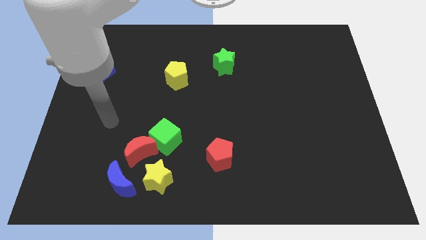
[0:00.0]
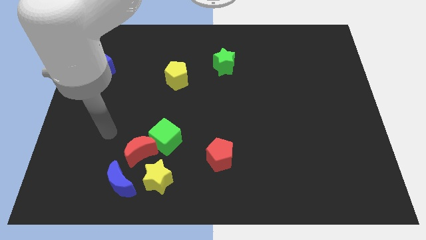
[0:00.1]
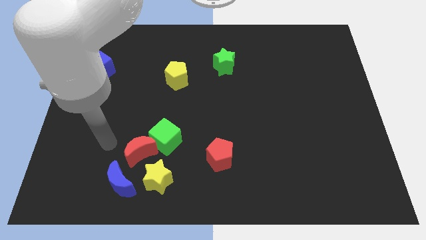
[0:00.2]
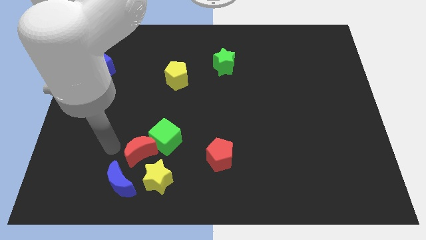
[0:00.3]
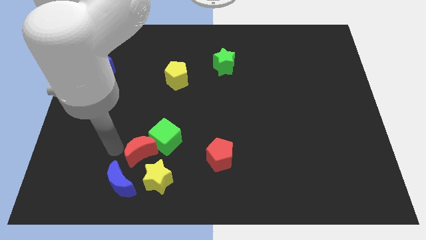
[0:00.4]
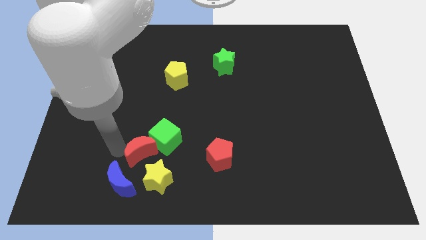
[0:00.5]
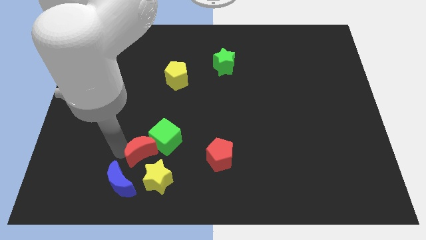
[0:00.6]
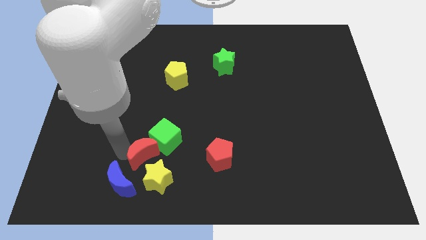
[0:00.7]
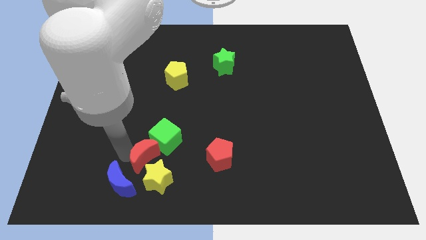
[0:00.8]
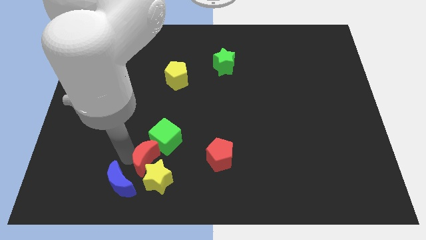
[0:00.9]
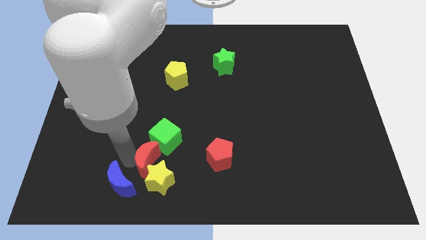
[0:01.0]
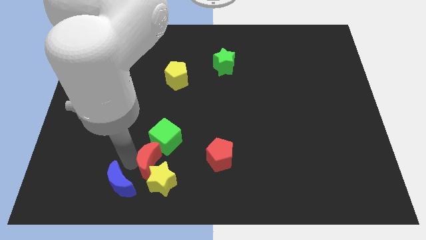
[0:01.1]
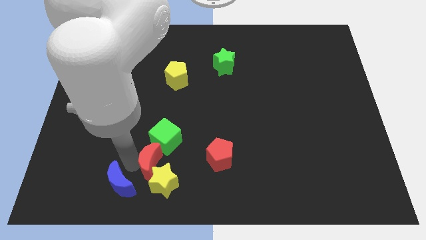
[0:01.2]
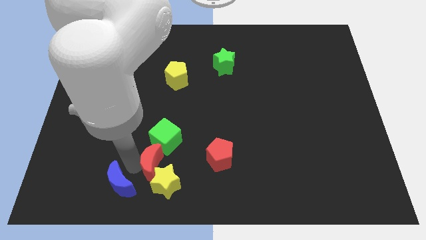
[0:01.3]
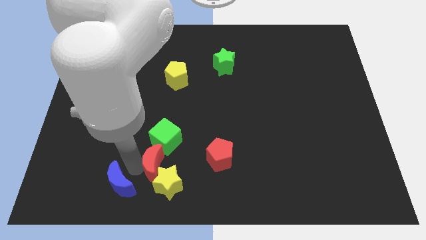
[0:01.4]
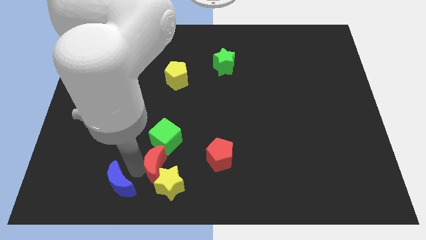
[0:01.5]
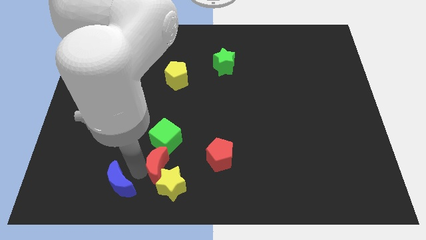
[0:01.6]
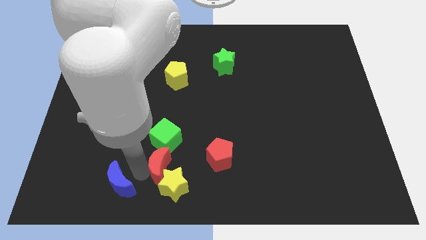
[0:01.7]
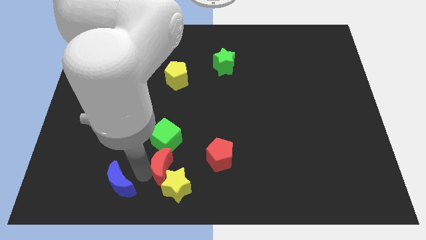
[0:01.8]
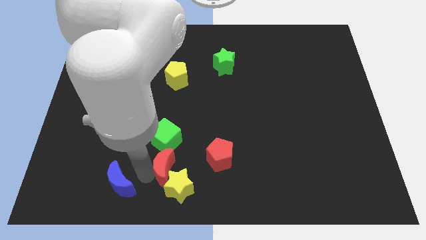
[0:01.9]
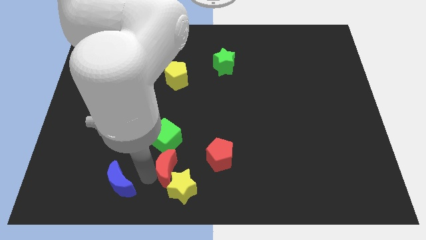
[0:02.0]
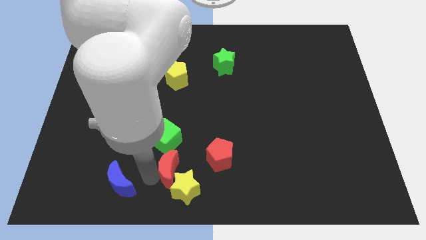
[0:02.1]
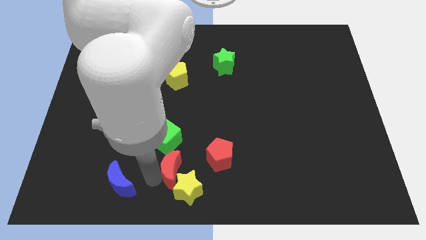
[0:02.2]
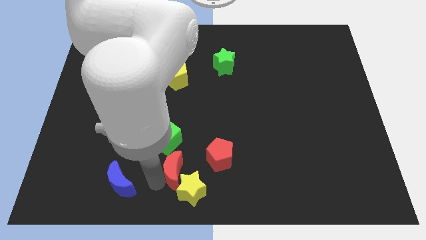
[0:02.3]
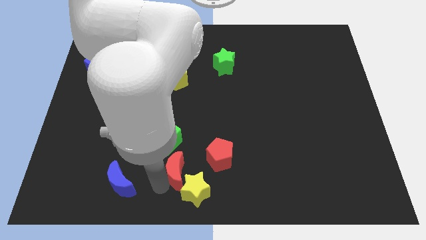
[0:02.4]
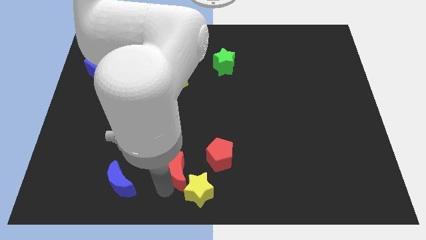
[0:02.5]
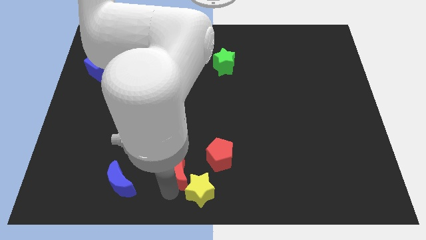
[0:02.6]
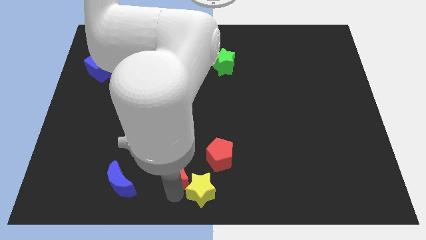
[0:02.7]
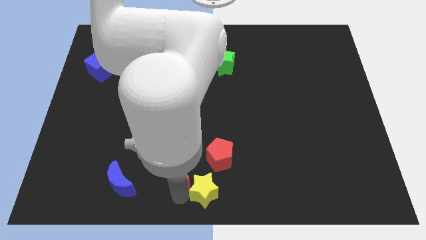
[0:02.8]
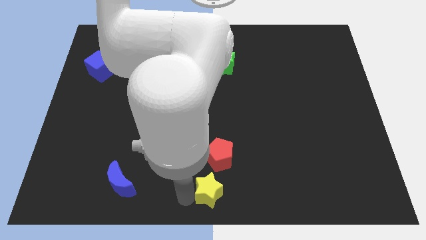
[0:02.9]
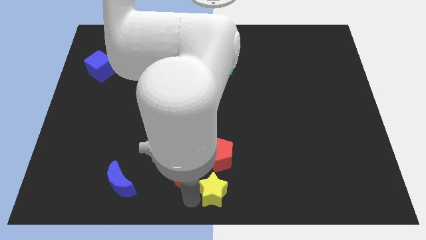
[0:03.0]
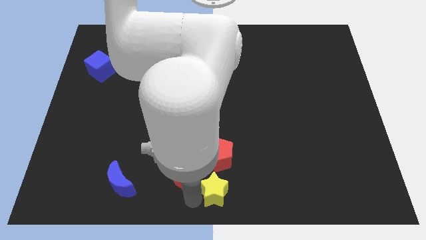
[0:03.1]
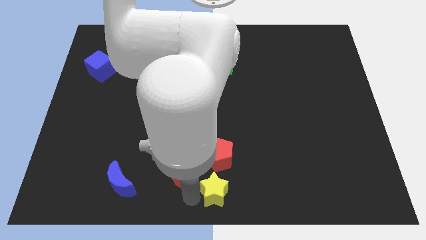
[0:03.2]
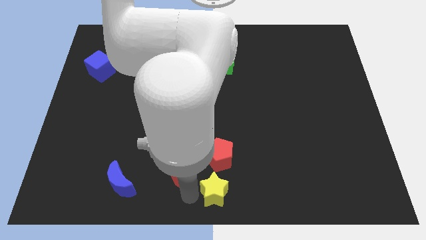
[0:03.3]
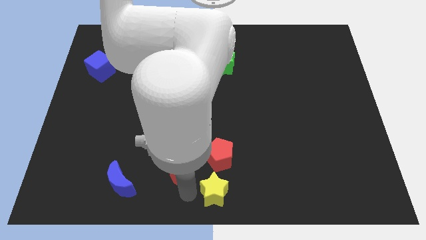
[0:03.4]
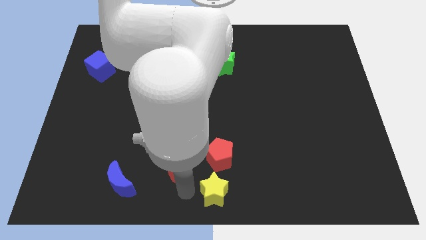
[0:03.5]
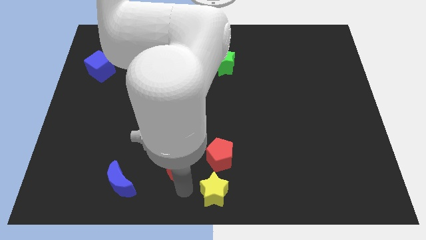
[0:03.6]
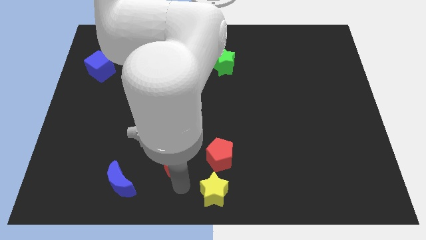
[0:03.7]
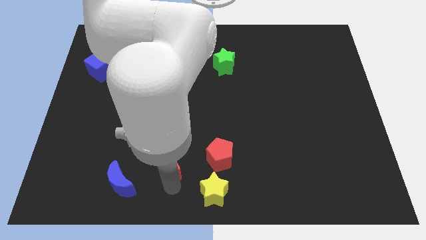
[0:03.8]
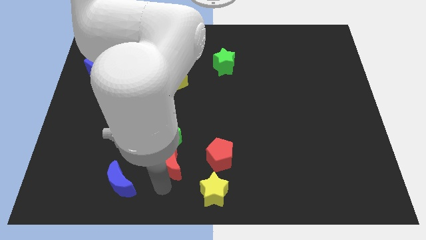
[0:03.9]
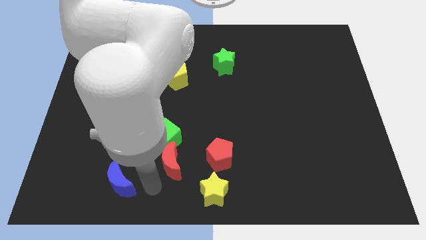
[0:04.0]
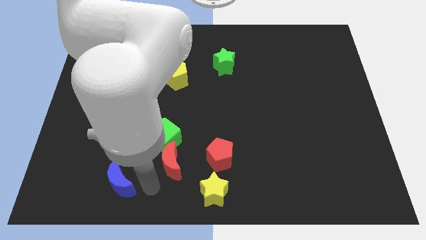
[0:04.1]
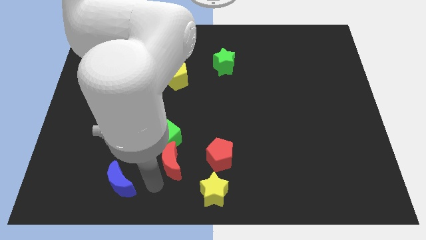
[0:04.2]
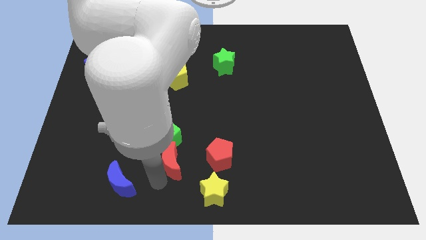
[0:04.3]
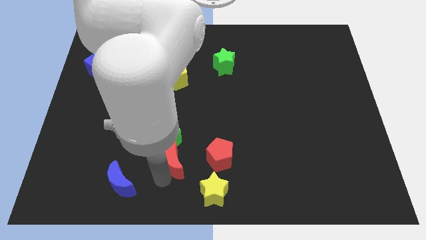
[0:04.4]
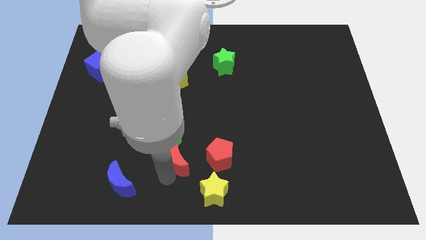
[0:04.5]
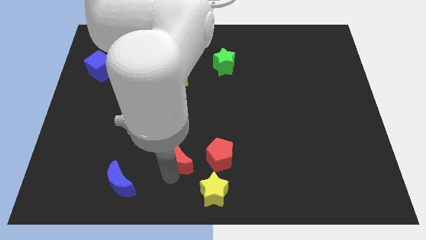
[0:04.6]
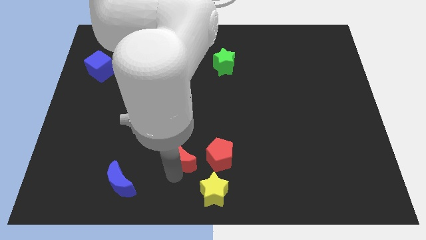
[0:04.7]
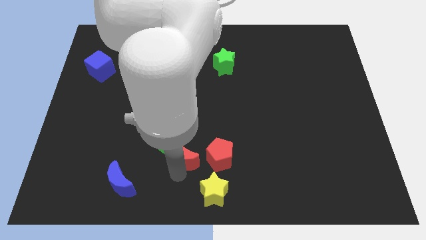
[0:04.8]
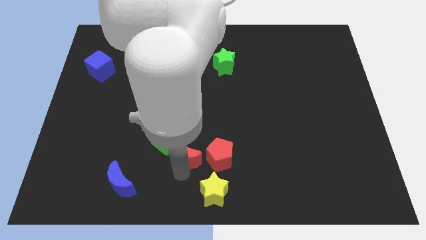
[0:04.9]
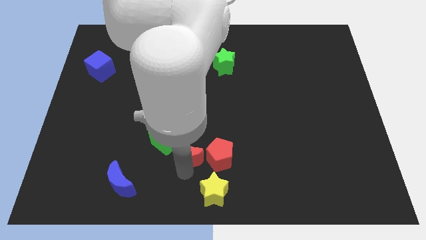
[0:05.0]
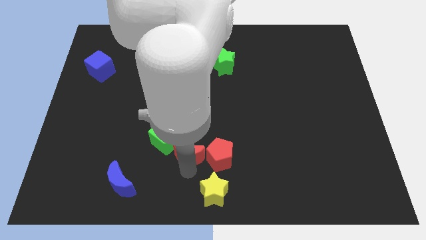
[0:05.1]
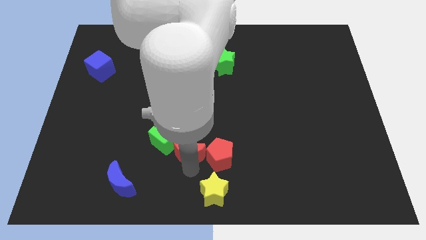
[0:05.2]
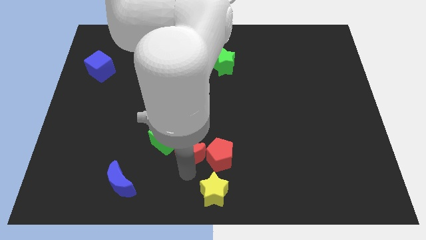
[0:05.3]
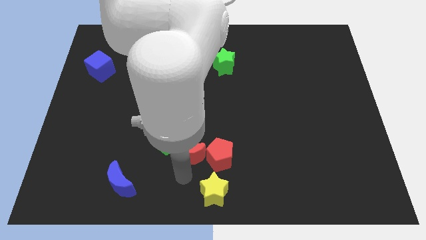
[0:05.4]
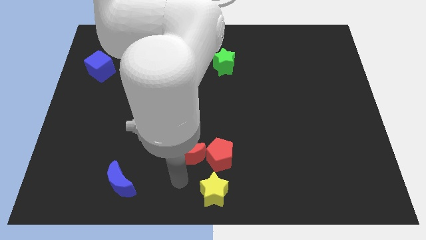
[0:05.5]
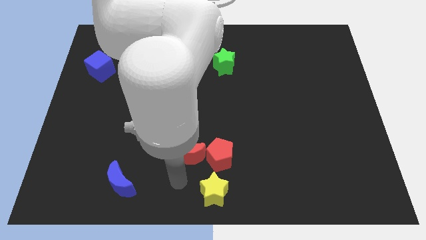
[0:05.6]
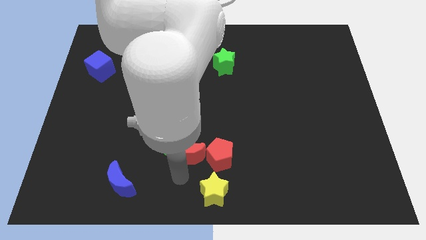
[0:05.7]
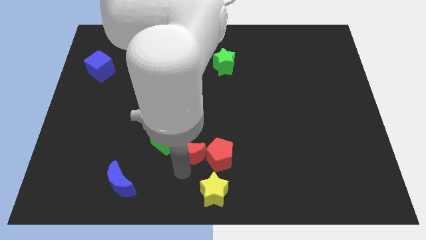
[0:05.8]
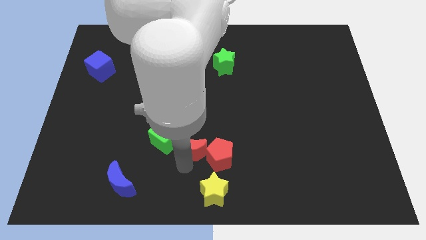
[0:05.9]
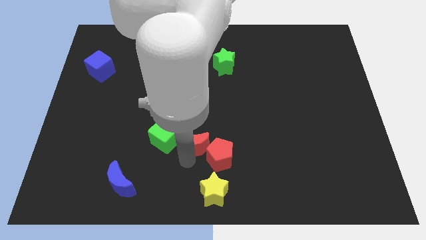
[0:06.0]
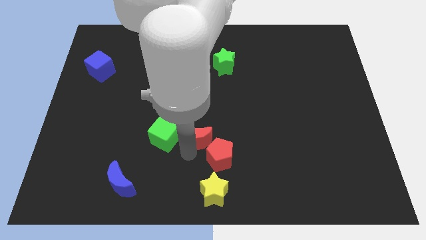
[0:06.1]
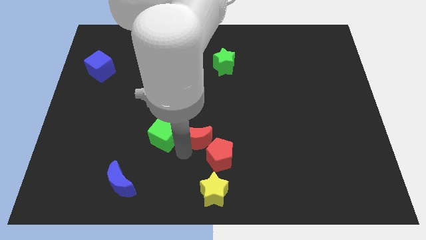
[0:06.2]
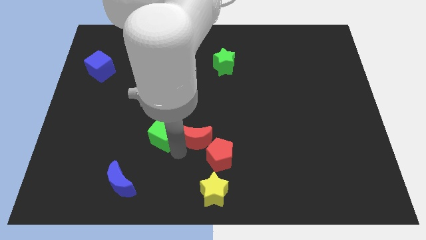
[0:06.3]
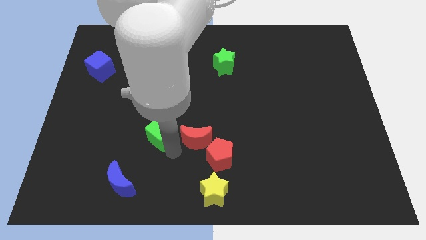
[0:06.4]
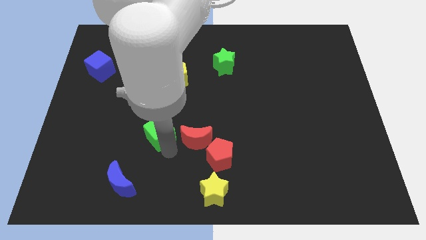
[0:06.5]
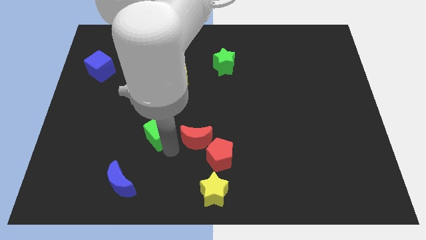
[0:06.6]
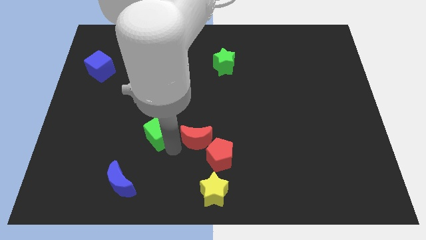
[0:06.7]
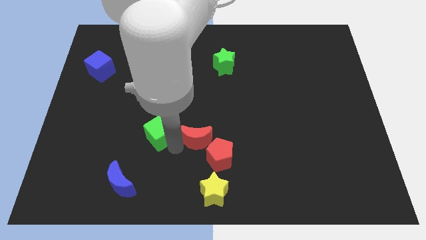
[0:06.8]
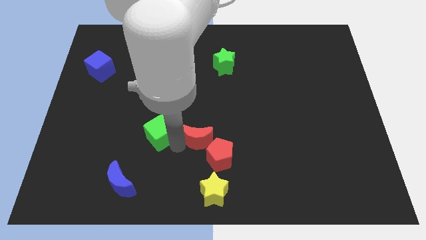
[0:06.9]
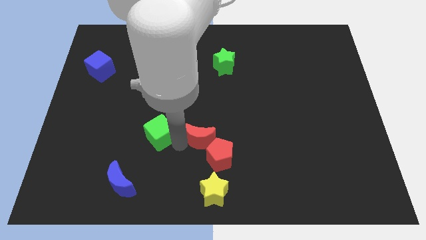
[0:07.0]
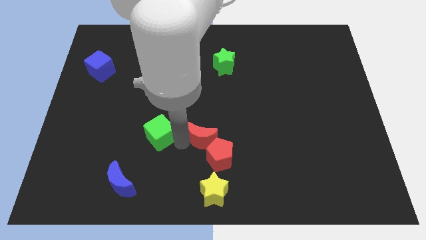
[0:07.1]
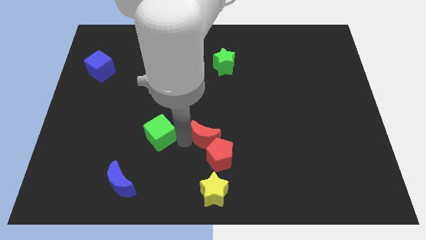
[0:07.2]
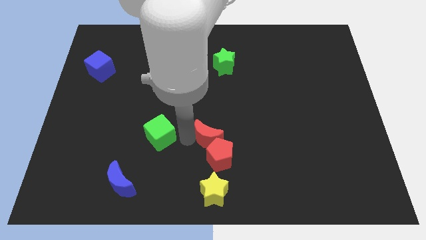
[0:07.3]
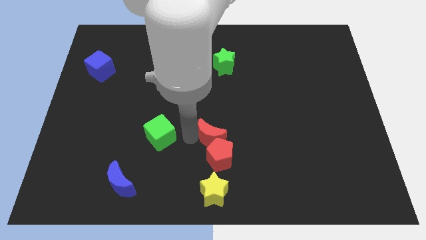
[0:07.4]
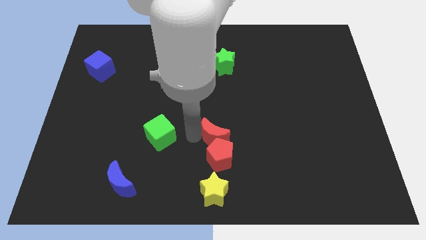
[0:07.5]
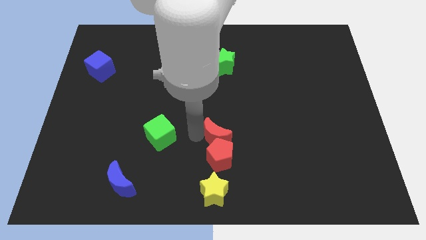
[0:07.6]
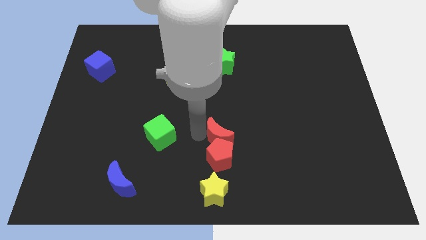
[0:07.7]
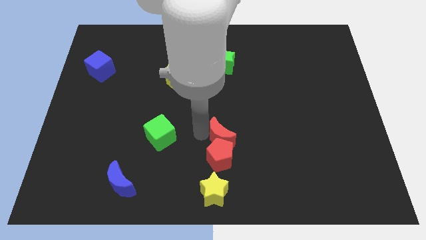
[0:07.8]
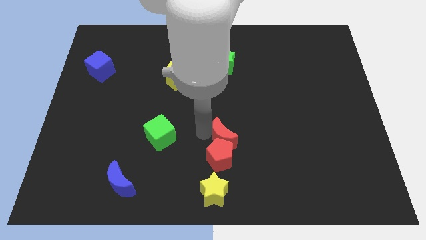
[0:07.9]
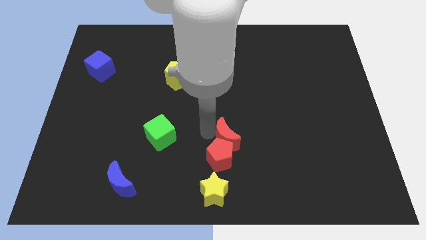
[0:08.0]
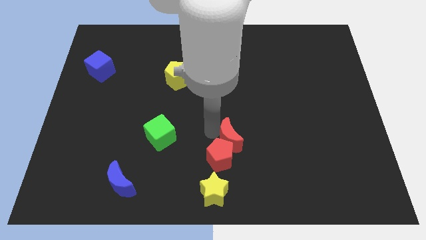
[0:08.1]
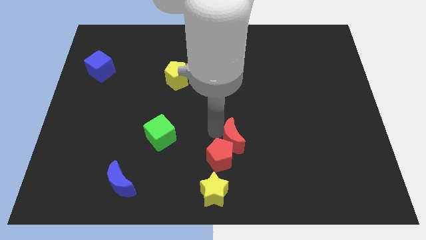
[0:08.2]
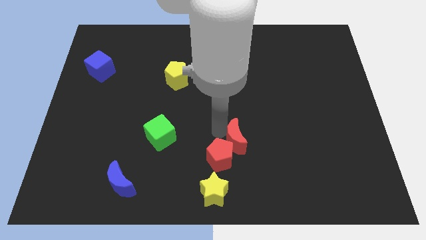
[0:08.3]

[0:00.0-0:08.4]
slide the red moon to the right
